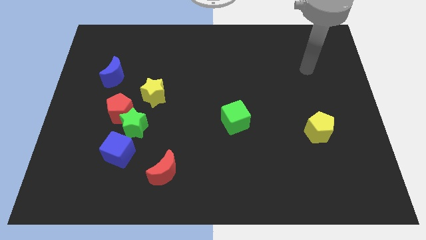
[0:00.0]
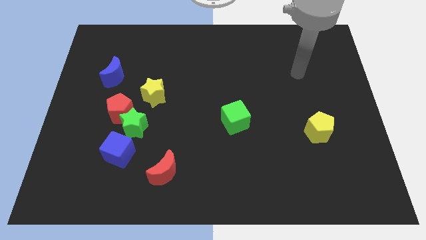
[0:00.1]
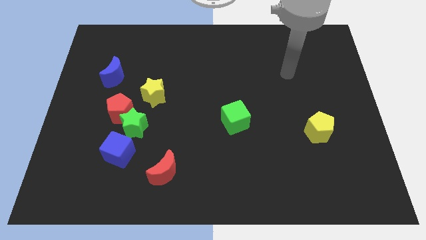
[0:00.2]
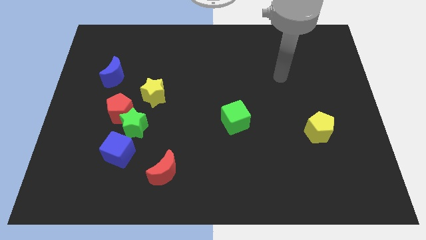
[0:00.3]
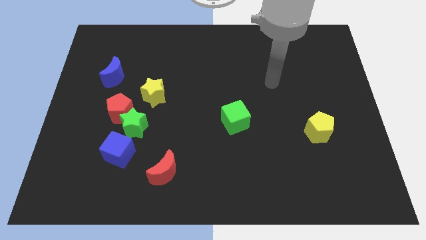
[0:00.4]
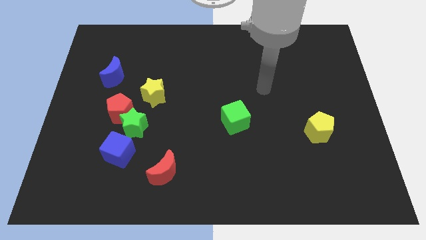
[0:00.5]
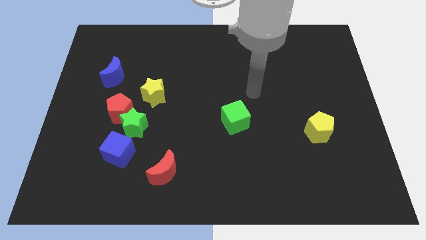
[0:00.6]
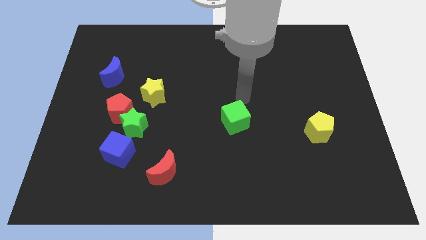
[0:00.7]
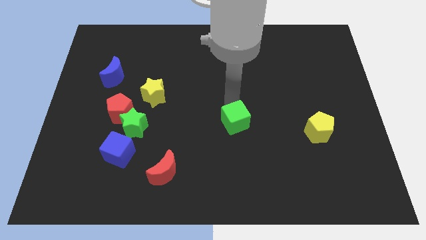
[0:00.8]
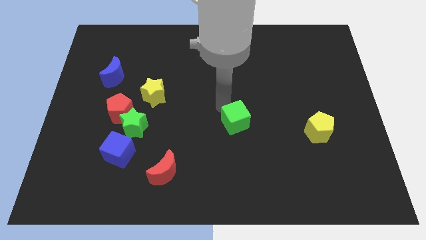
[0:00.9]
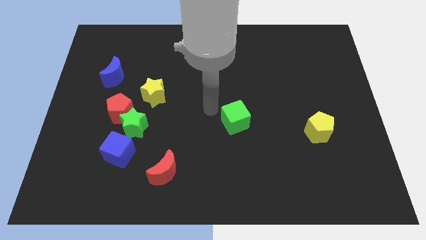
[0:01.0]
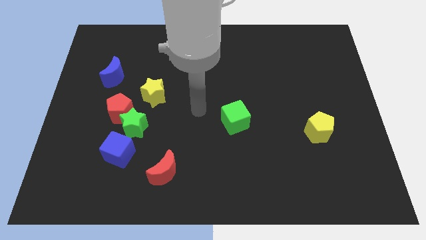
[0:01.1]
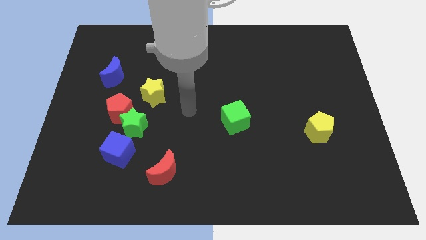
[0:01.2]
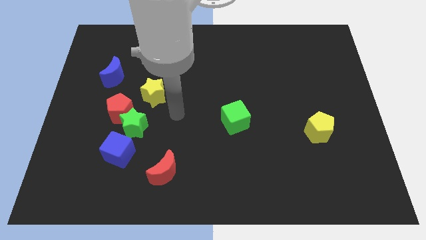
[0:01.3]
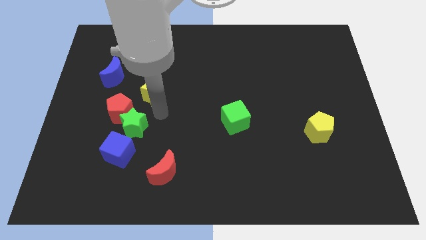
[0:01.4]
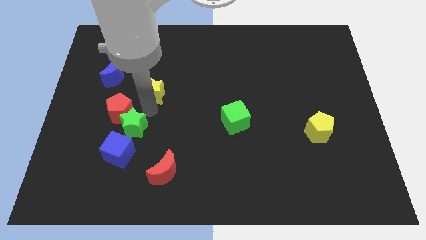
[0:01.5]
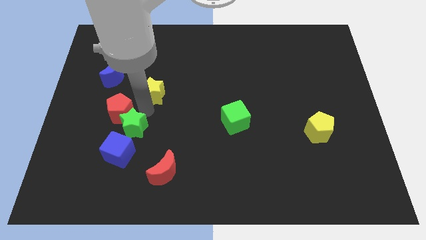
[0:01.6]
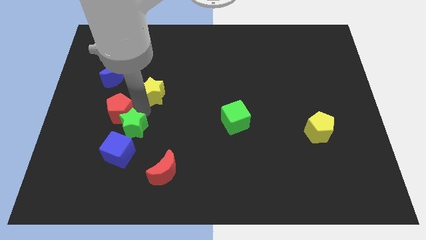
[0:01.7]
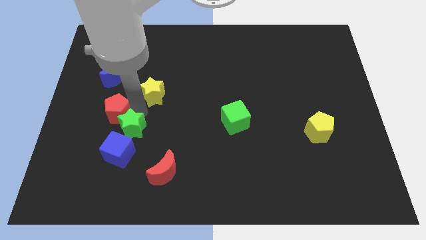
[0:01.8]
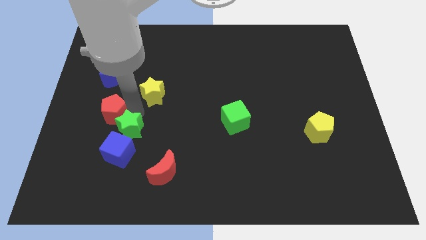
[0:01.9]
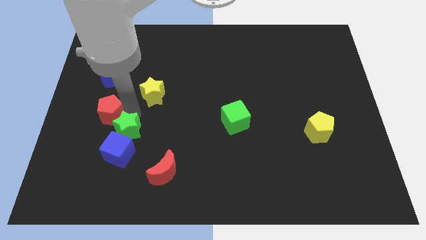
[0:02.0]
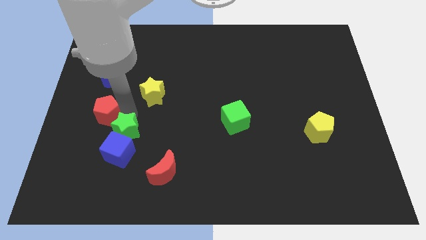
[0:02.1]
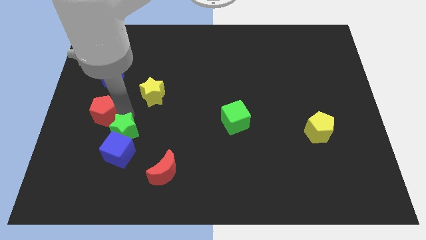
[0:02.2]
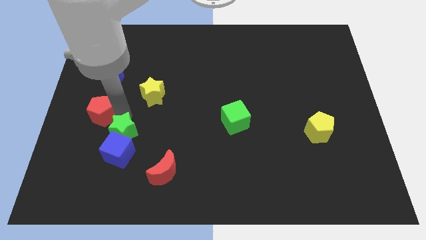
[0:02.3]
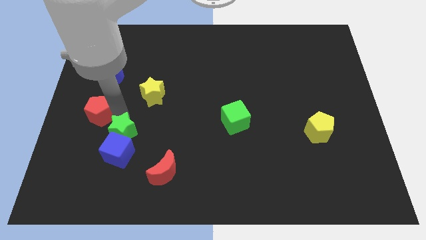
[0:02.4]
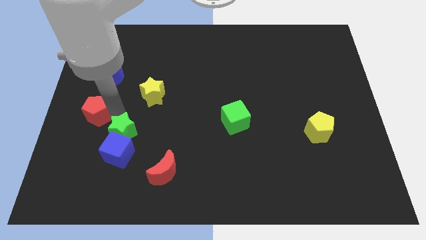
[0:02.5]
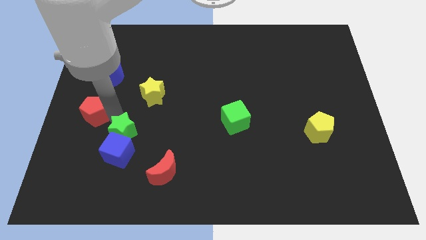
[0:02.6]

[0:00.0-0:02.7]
separate the red pentagon from the green star and yellow star

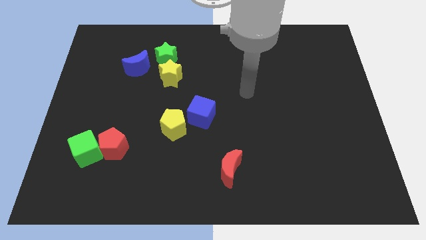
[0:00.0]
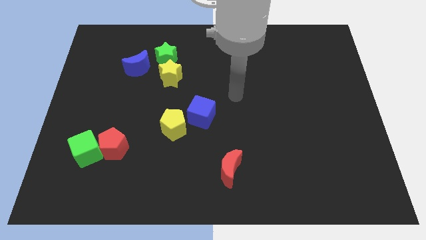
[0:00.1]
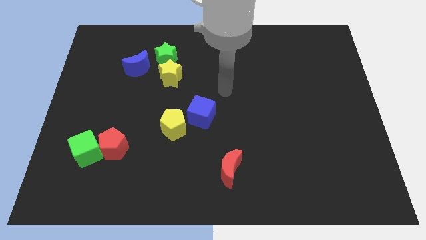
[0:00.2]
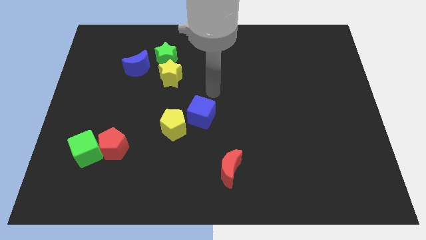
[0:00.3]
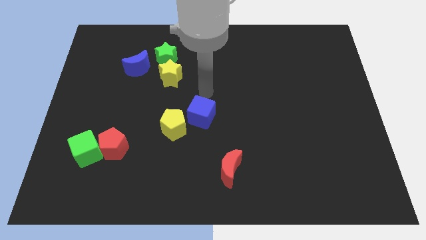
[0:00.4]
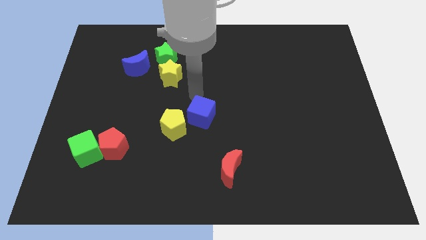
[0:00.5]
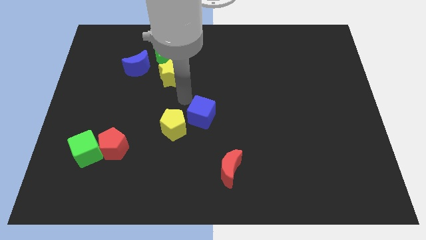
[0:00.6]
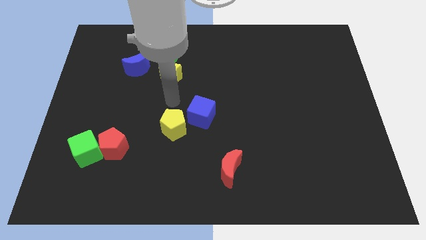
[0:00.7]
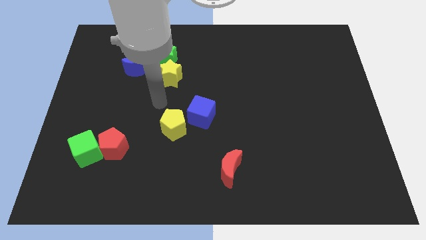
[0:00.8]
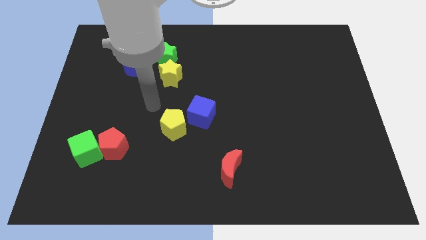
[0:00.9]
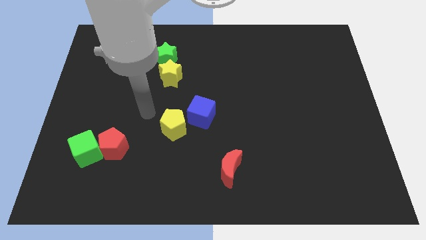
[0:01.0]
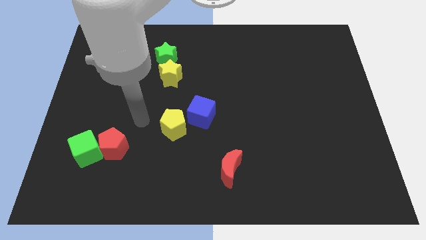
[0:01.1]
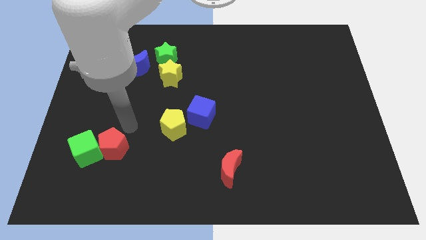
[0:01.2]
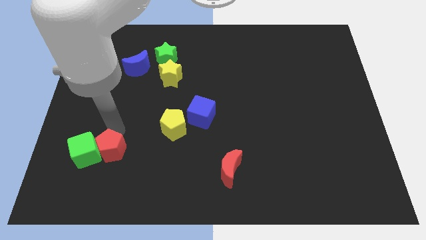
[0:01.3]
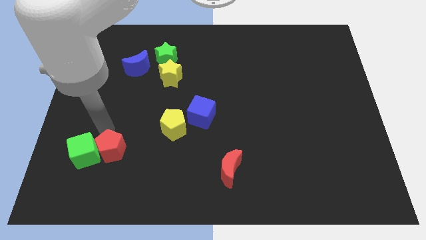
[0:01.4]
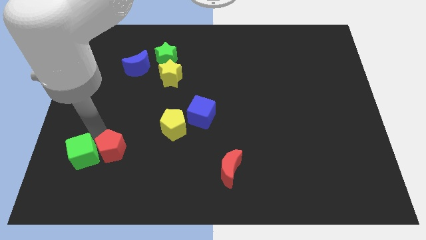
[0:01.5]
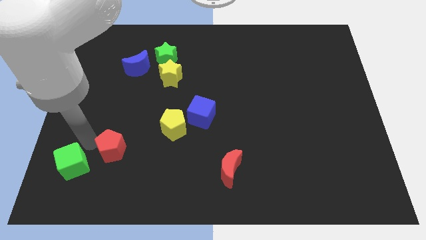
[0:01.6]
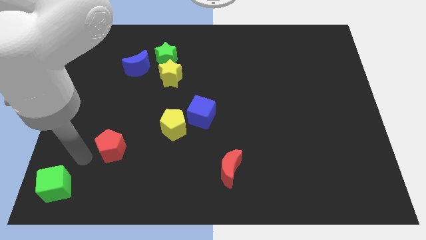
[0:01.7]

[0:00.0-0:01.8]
pull the red pentagon apart from the green cube

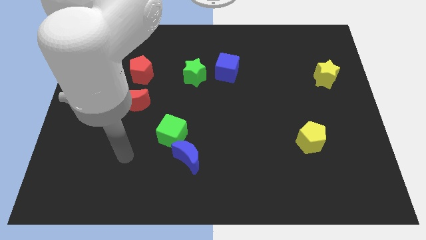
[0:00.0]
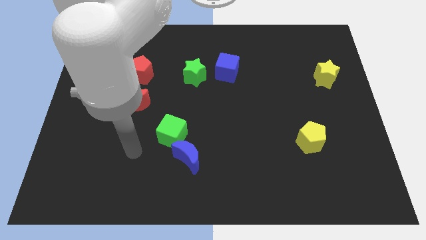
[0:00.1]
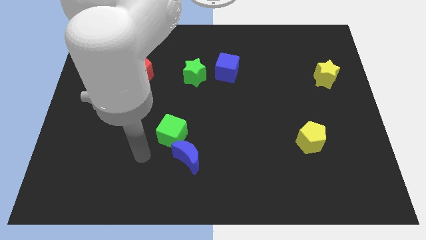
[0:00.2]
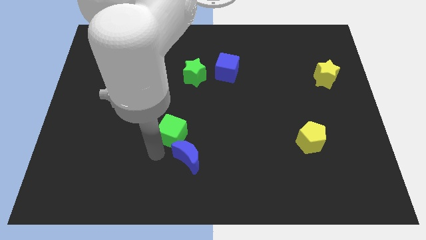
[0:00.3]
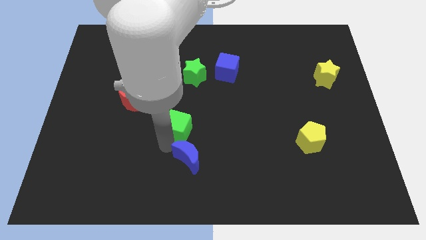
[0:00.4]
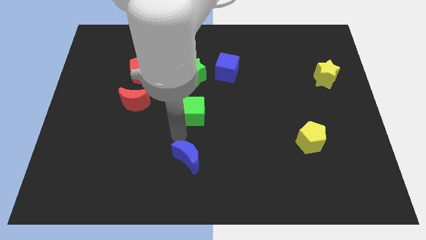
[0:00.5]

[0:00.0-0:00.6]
pull the blue moon apart from the green cube

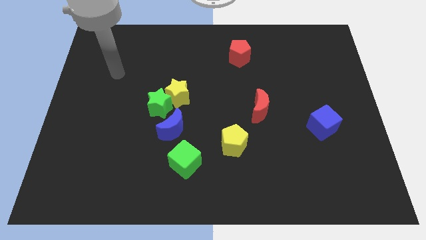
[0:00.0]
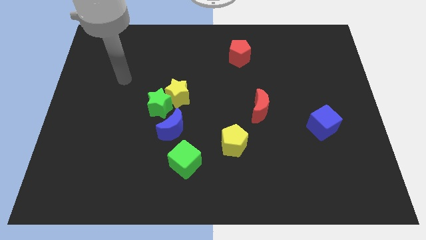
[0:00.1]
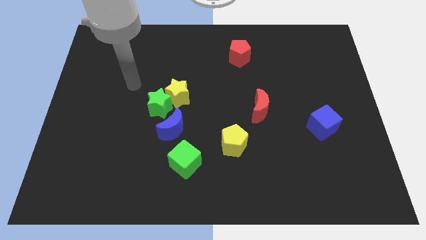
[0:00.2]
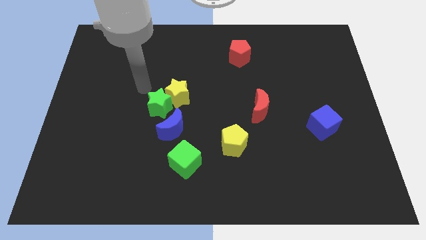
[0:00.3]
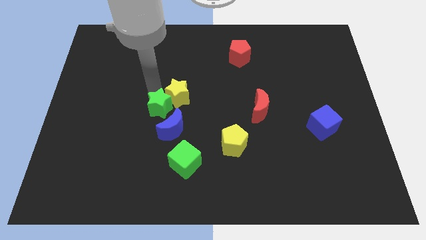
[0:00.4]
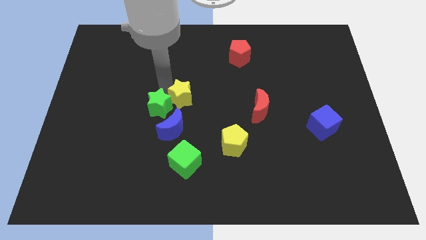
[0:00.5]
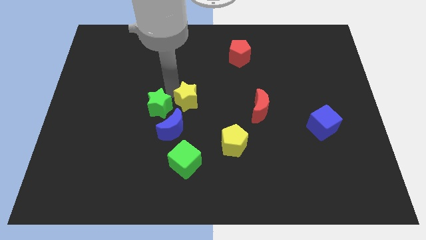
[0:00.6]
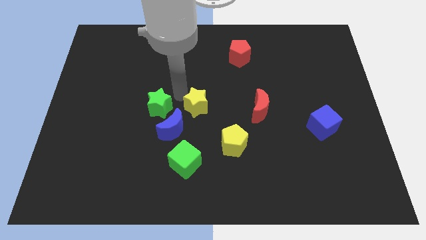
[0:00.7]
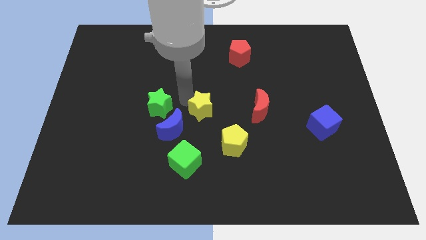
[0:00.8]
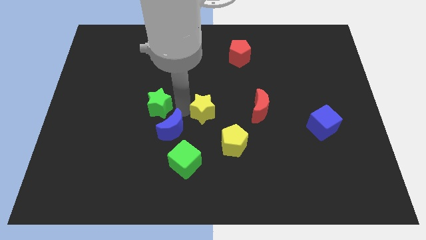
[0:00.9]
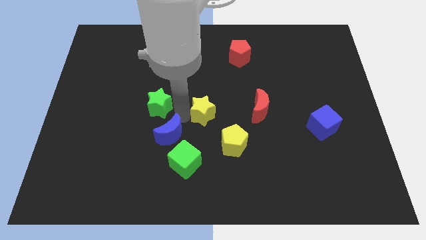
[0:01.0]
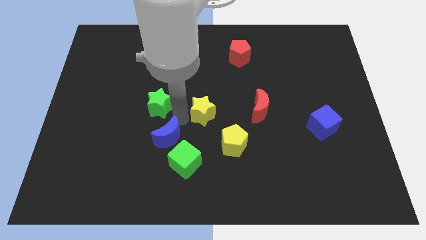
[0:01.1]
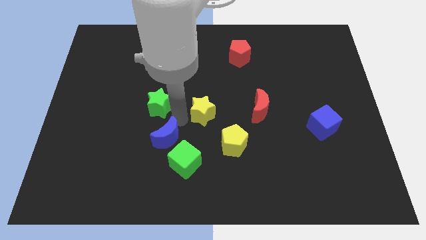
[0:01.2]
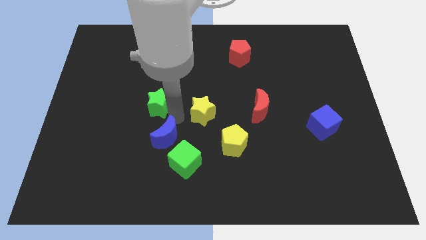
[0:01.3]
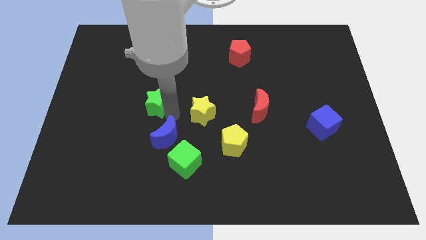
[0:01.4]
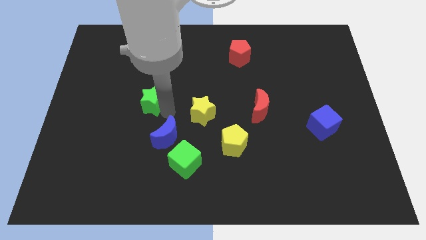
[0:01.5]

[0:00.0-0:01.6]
separate the green star from the yellow star and blue moon

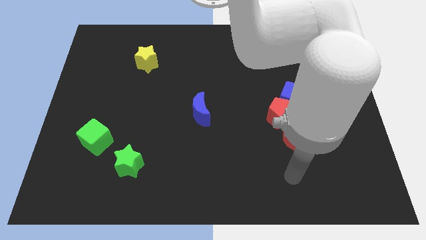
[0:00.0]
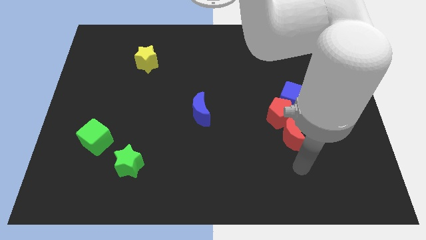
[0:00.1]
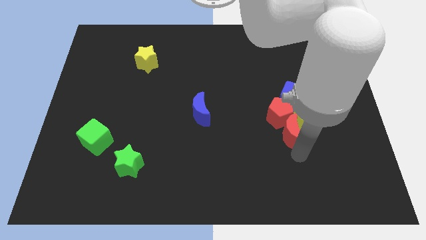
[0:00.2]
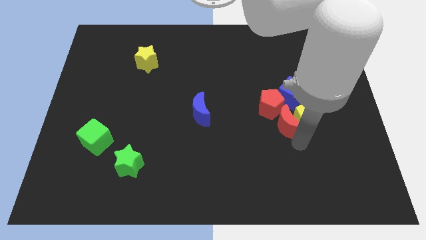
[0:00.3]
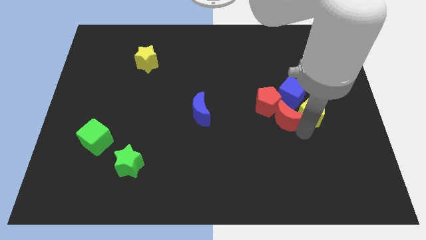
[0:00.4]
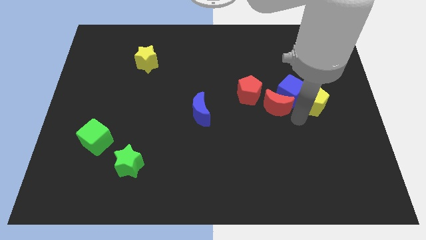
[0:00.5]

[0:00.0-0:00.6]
separate the red pentagon from the group

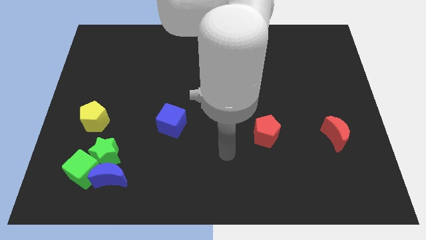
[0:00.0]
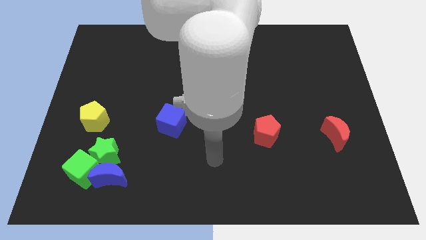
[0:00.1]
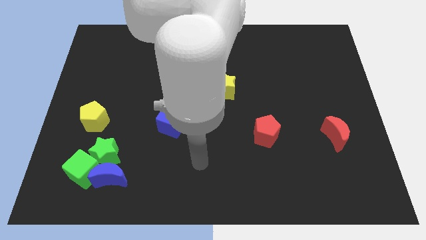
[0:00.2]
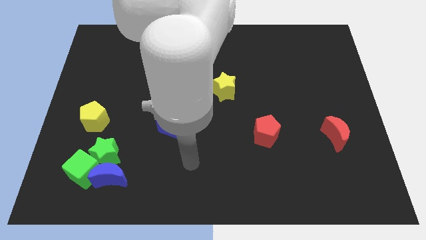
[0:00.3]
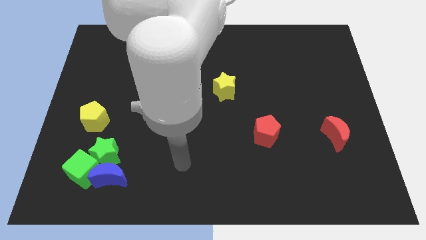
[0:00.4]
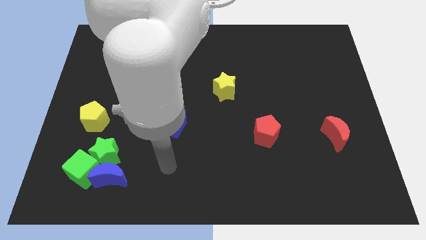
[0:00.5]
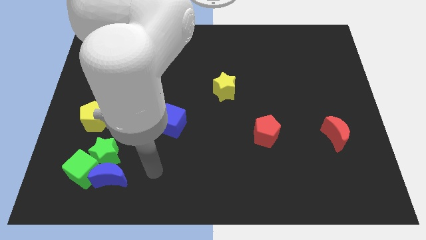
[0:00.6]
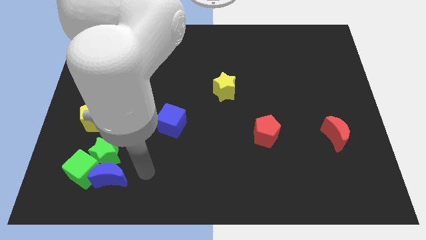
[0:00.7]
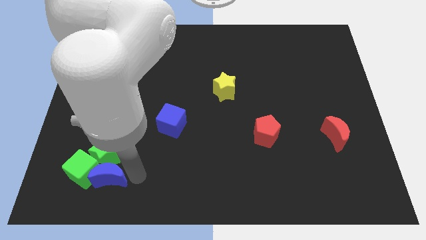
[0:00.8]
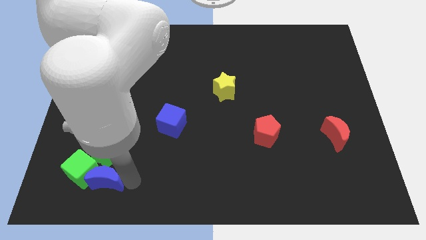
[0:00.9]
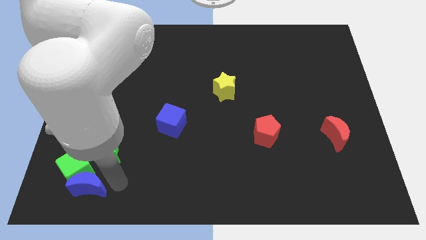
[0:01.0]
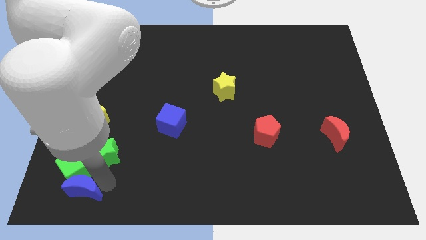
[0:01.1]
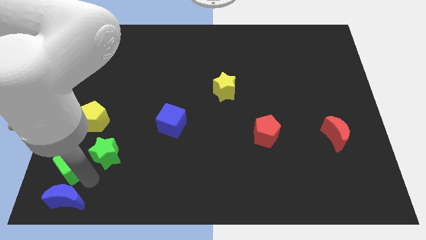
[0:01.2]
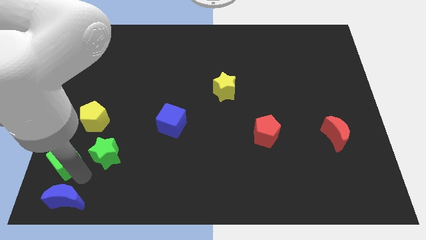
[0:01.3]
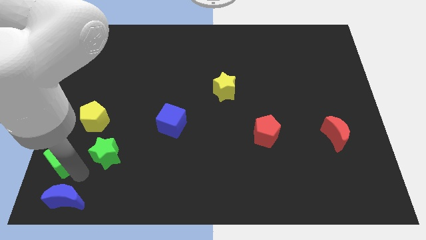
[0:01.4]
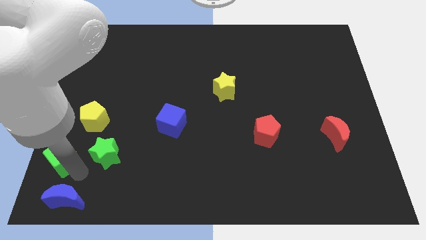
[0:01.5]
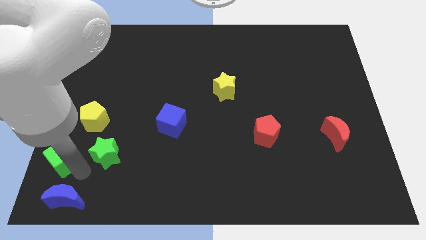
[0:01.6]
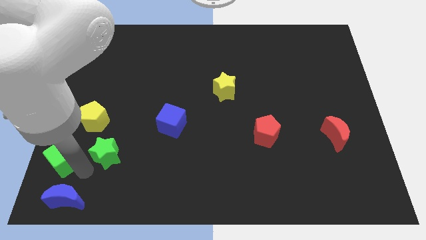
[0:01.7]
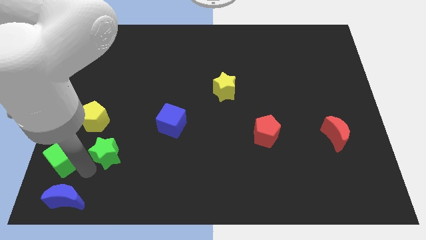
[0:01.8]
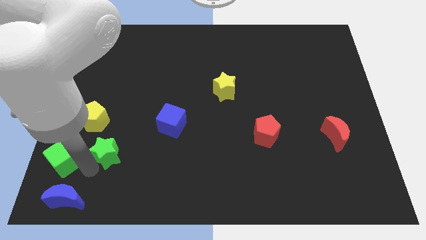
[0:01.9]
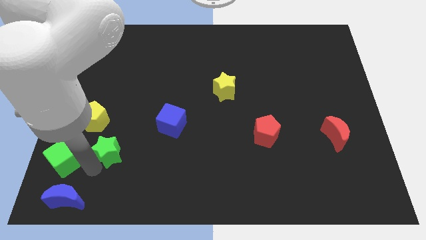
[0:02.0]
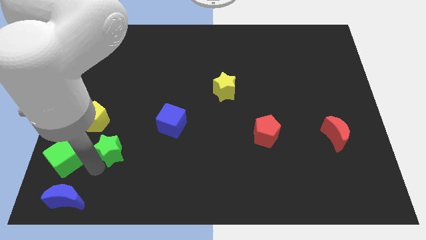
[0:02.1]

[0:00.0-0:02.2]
move the green star away from the blue moon and green cube
